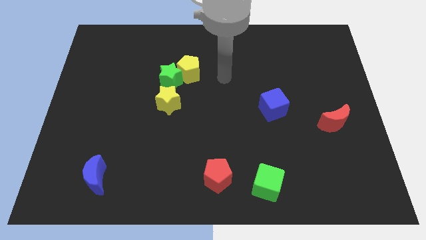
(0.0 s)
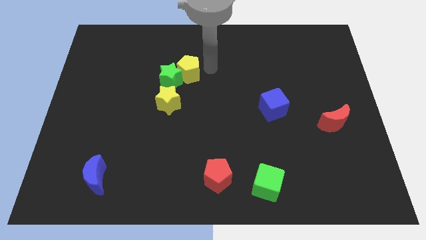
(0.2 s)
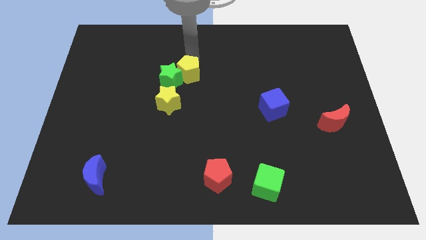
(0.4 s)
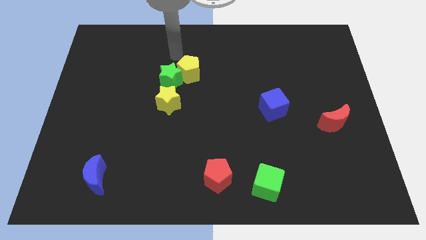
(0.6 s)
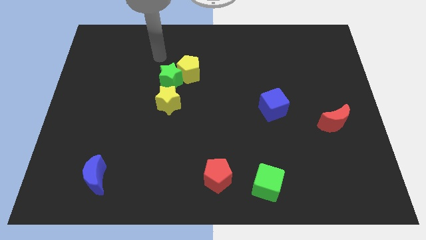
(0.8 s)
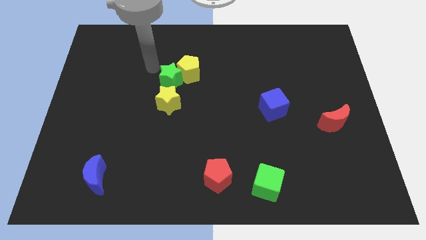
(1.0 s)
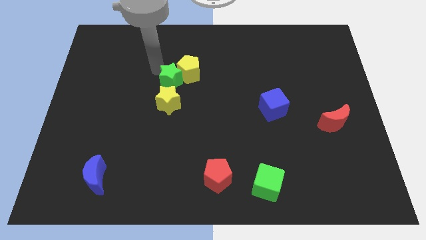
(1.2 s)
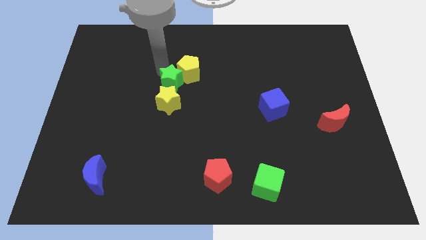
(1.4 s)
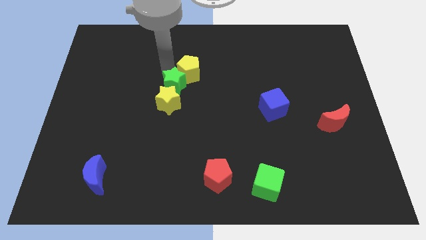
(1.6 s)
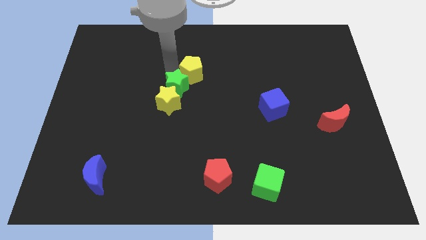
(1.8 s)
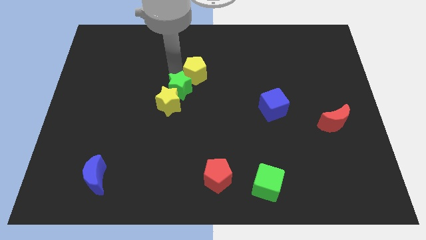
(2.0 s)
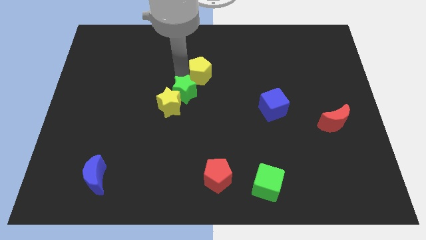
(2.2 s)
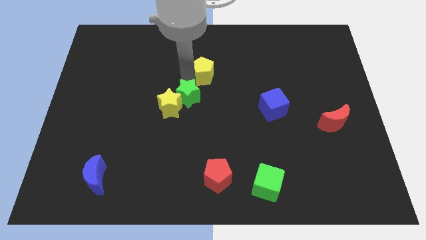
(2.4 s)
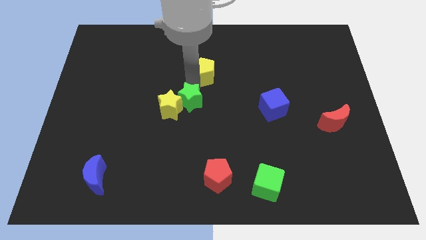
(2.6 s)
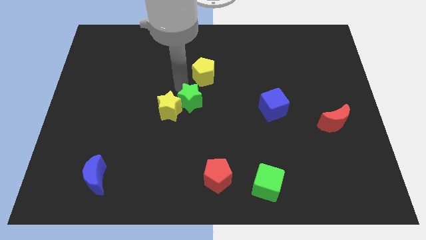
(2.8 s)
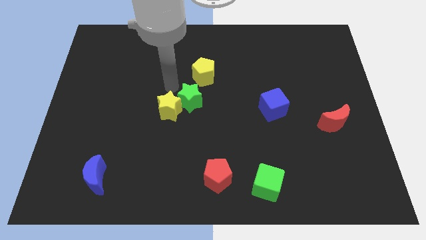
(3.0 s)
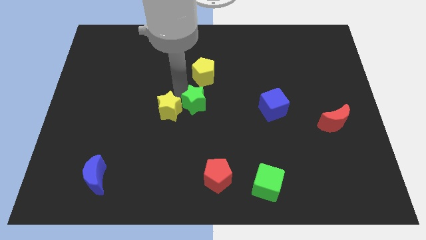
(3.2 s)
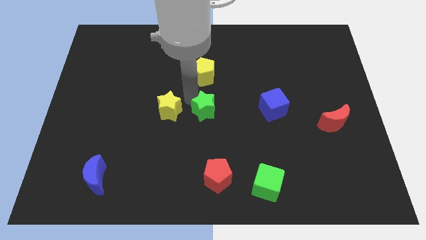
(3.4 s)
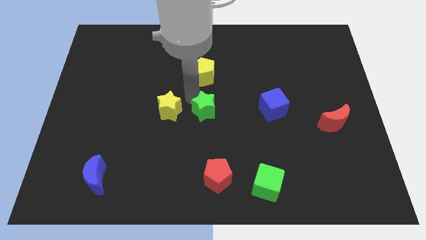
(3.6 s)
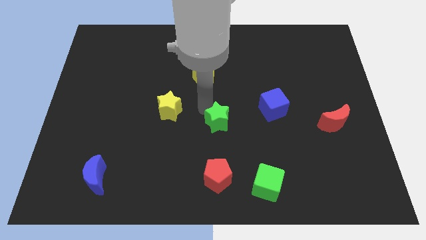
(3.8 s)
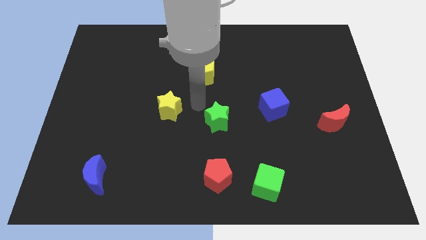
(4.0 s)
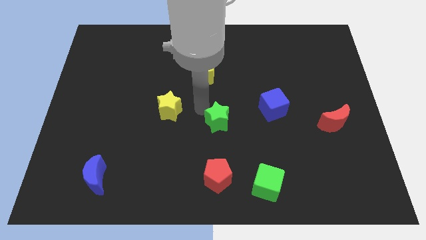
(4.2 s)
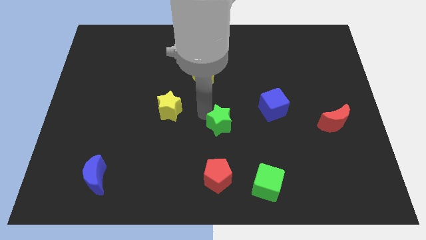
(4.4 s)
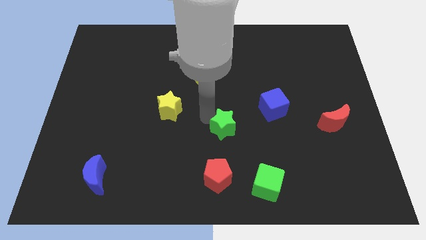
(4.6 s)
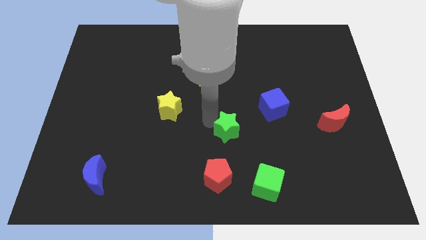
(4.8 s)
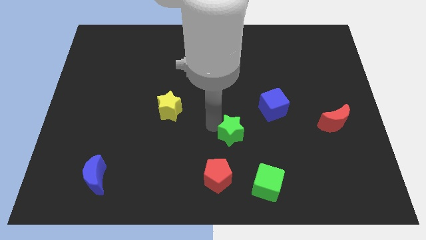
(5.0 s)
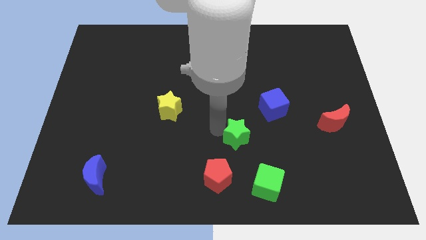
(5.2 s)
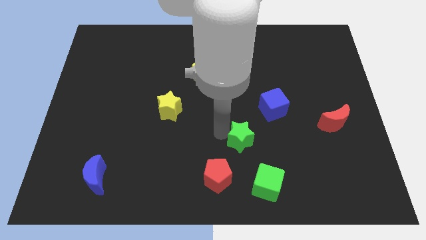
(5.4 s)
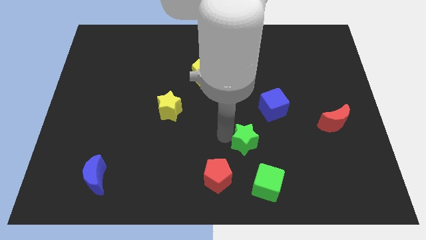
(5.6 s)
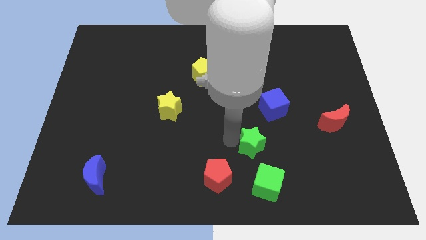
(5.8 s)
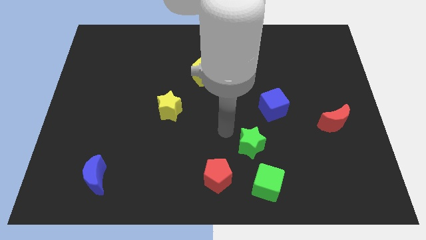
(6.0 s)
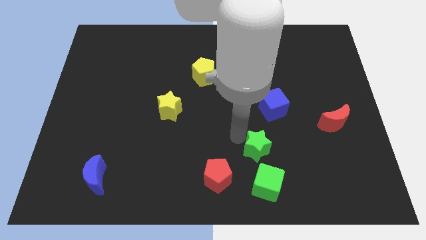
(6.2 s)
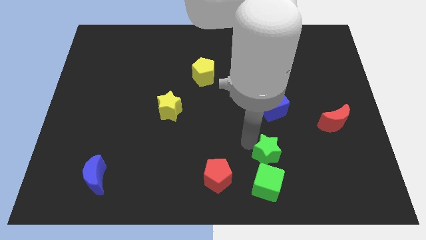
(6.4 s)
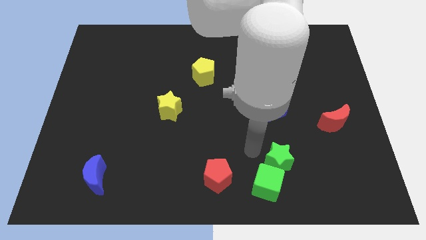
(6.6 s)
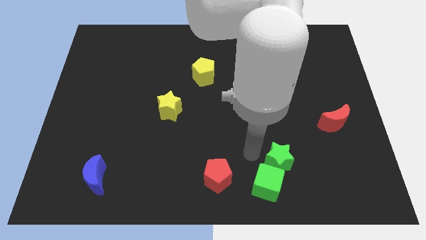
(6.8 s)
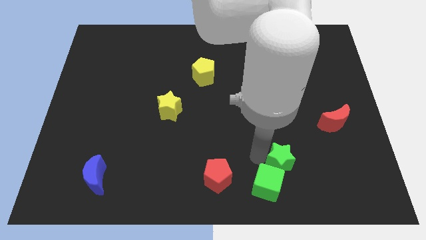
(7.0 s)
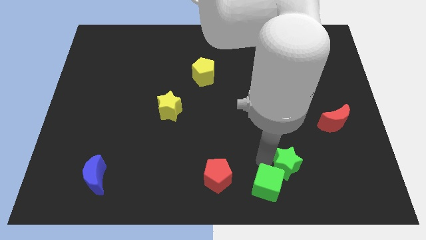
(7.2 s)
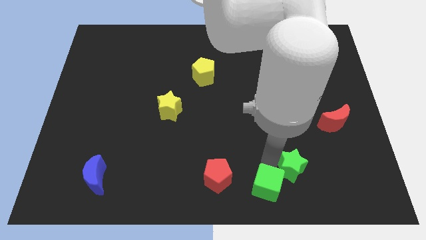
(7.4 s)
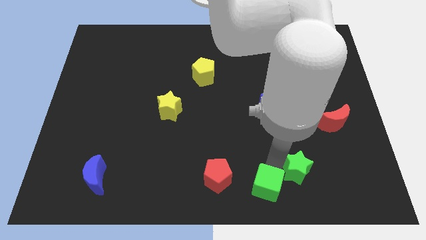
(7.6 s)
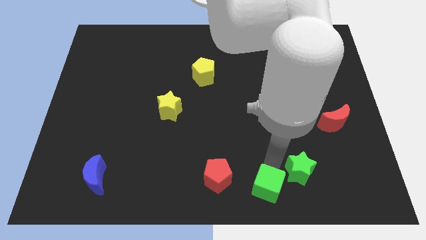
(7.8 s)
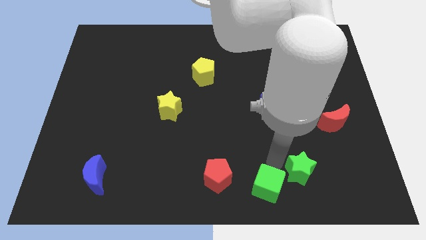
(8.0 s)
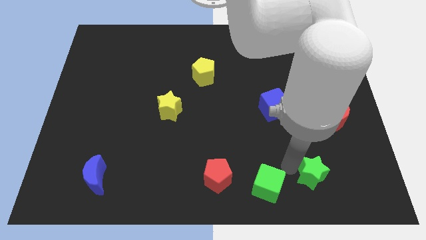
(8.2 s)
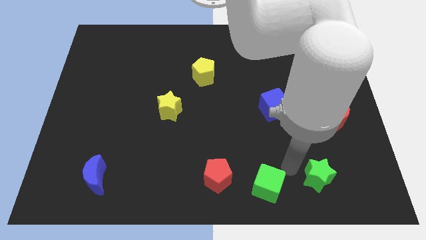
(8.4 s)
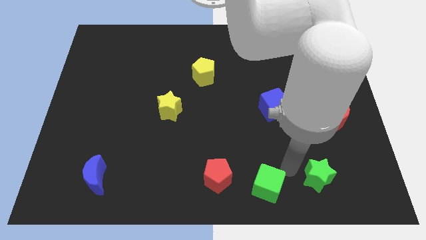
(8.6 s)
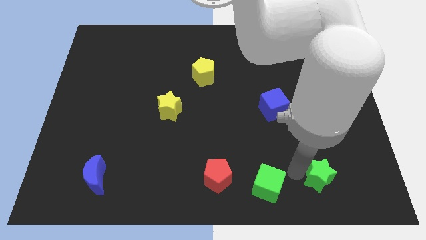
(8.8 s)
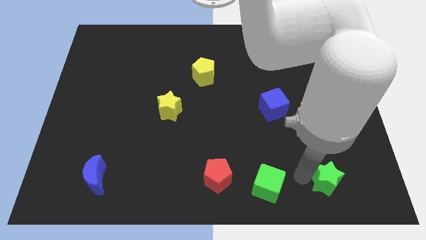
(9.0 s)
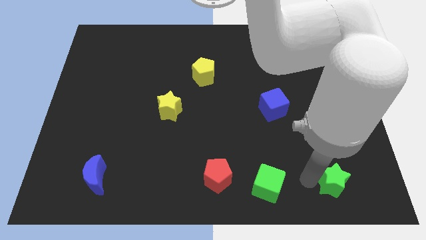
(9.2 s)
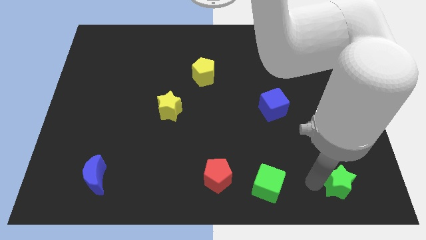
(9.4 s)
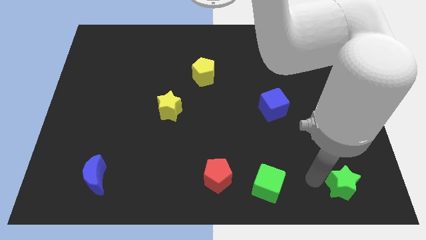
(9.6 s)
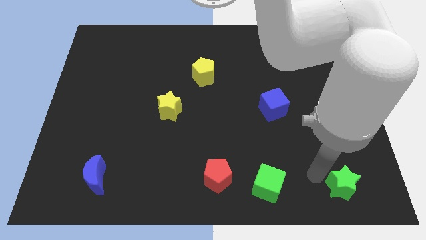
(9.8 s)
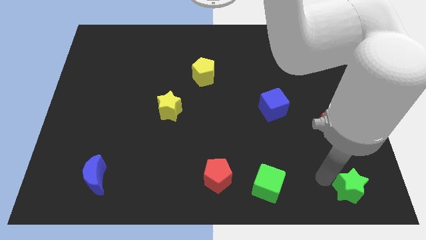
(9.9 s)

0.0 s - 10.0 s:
put the green star to the bottom right of the board

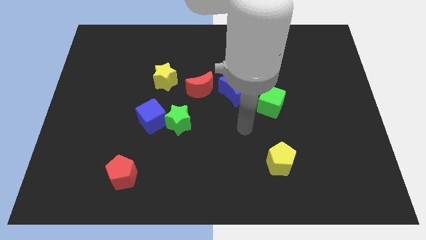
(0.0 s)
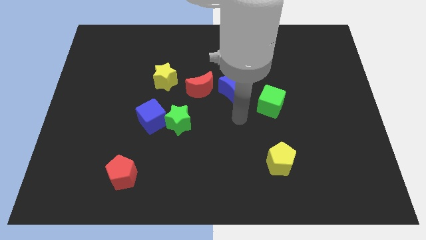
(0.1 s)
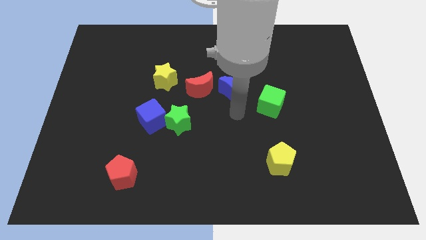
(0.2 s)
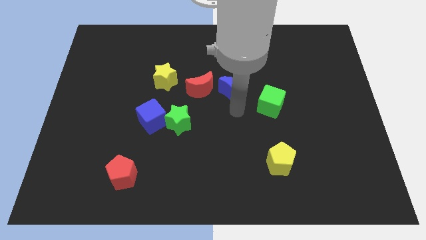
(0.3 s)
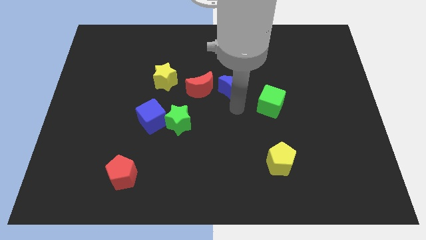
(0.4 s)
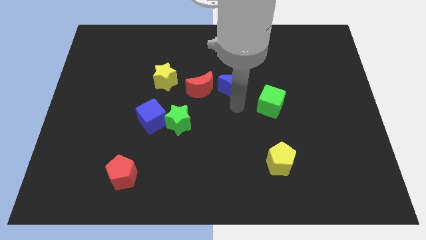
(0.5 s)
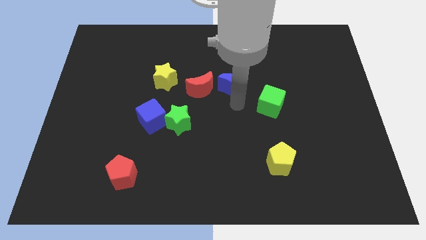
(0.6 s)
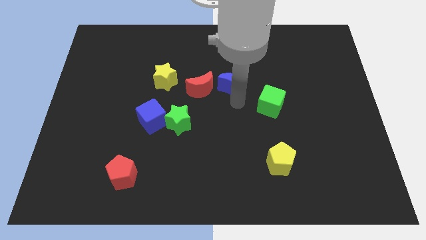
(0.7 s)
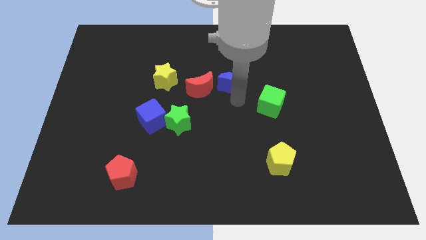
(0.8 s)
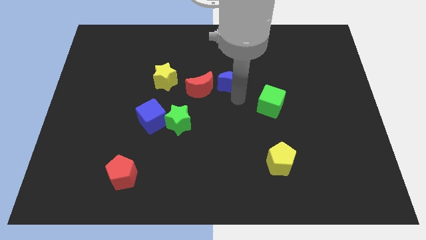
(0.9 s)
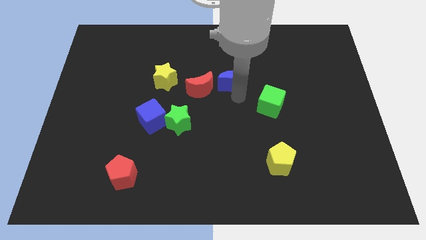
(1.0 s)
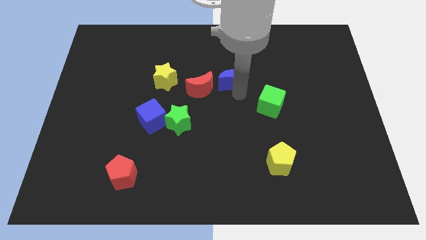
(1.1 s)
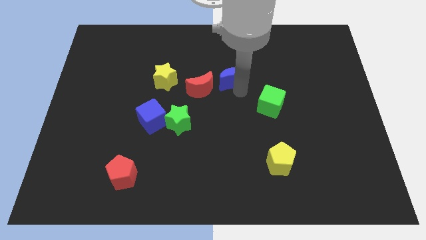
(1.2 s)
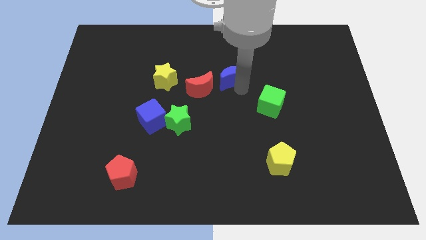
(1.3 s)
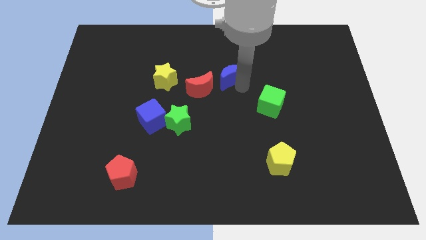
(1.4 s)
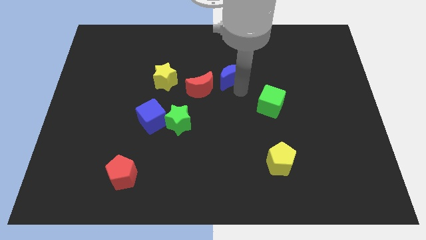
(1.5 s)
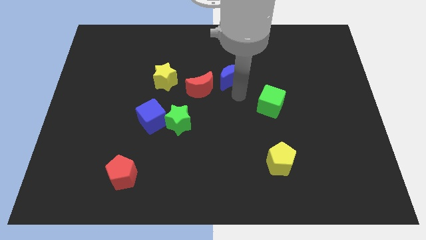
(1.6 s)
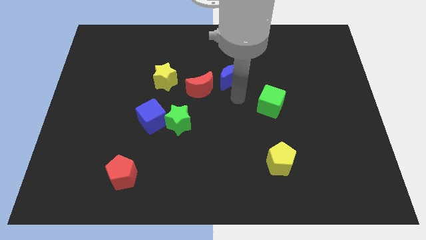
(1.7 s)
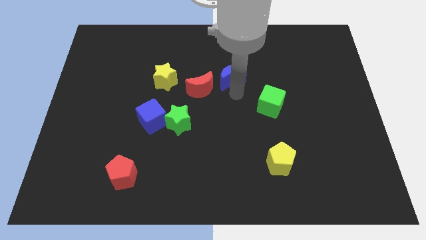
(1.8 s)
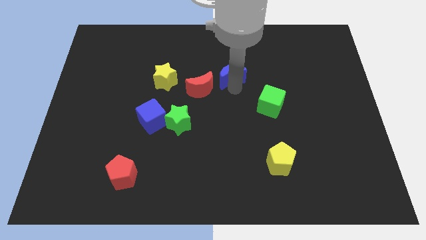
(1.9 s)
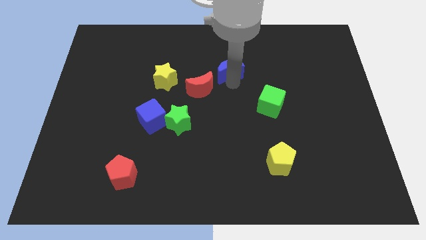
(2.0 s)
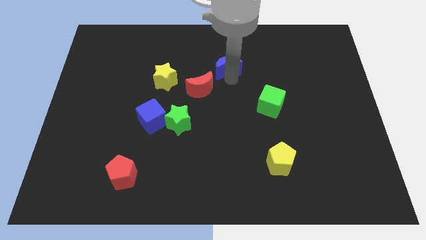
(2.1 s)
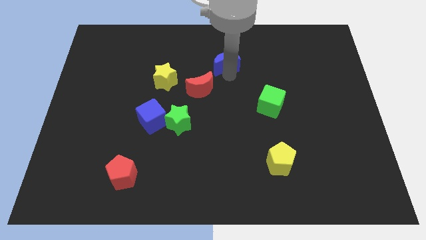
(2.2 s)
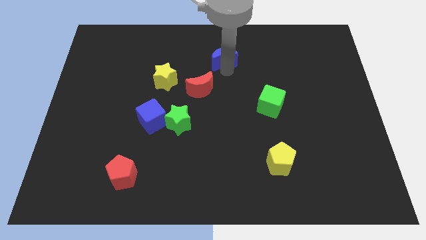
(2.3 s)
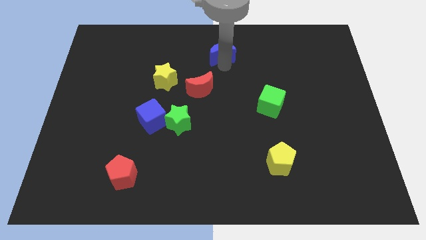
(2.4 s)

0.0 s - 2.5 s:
put the blue moon to the top

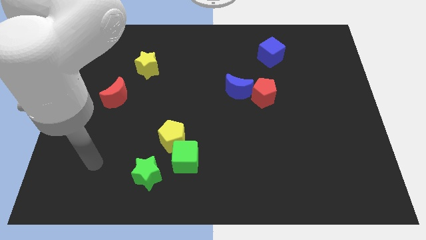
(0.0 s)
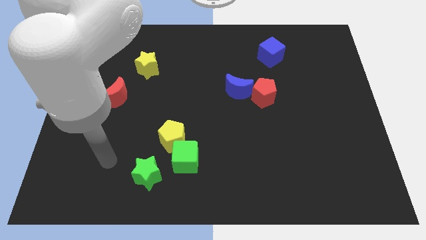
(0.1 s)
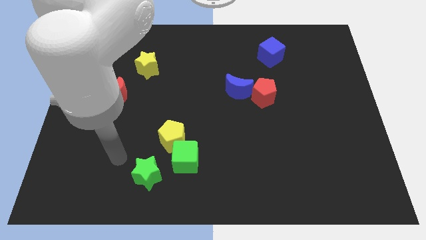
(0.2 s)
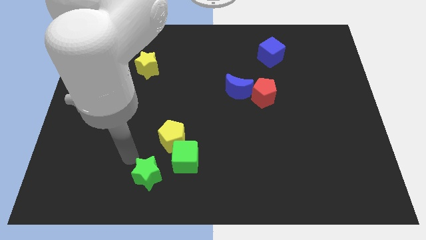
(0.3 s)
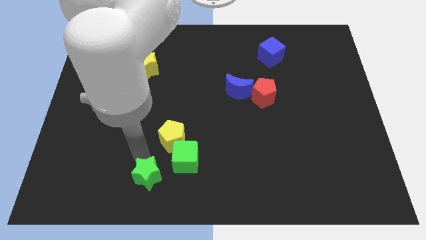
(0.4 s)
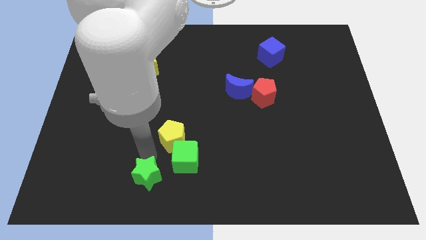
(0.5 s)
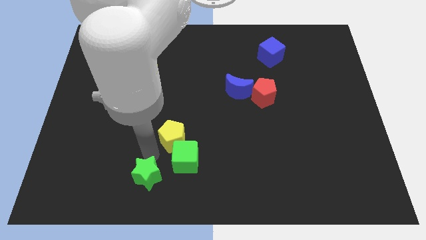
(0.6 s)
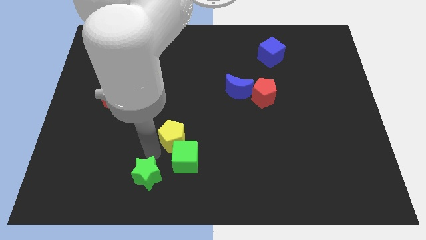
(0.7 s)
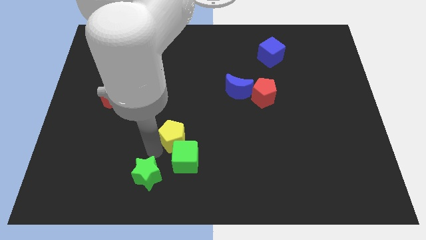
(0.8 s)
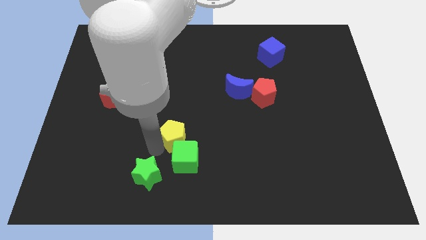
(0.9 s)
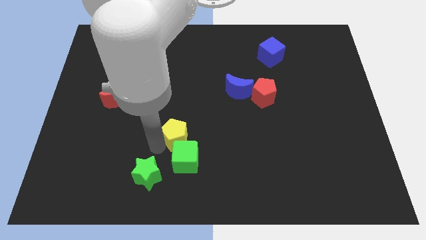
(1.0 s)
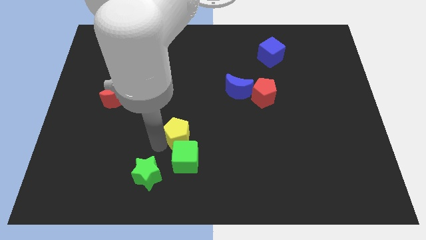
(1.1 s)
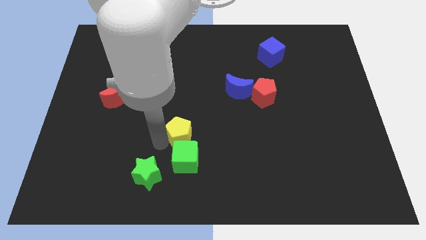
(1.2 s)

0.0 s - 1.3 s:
push the yellow pentagon to the middle
